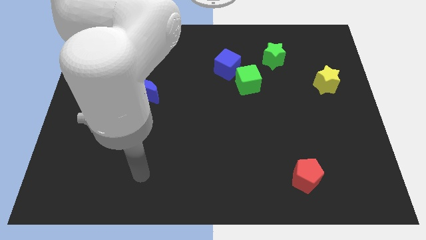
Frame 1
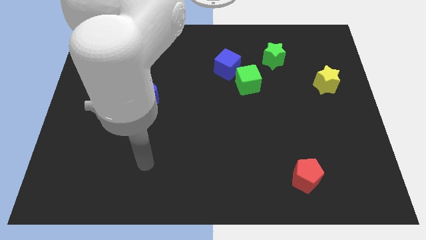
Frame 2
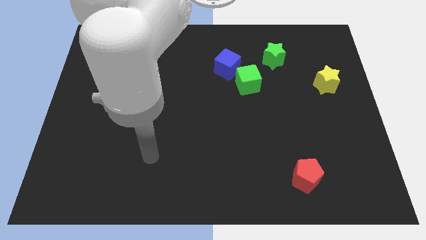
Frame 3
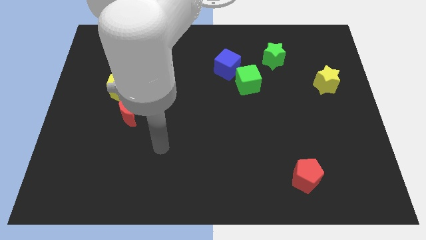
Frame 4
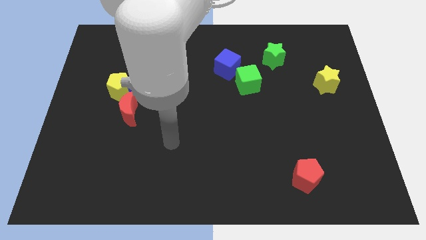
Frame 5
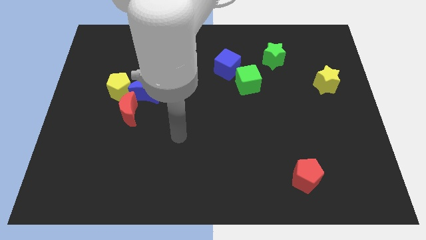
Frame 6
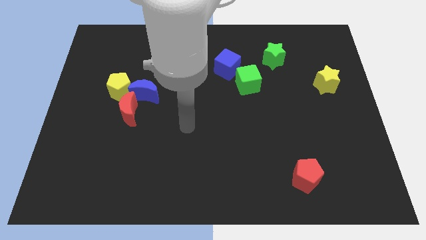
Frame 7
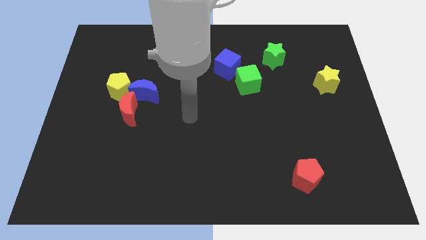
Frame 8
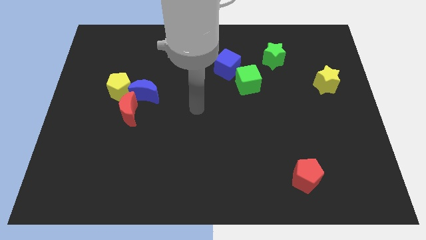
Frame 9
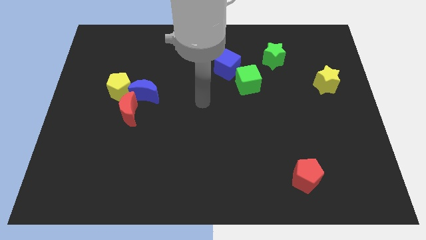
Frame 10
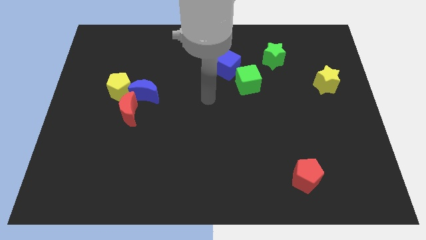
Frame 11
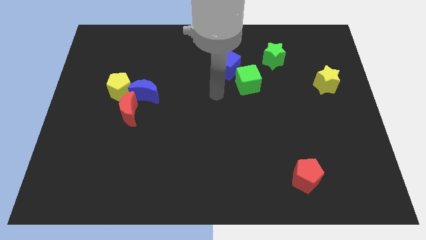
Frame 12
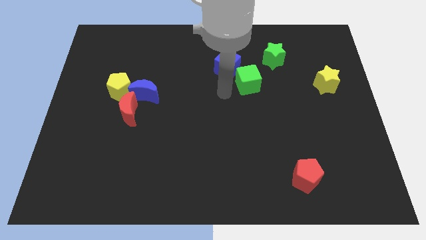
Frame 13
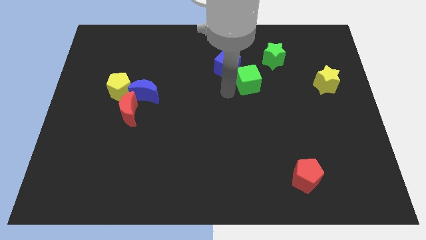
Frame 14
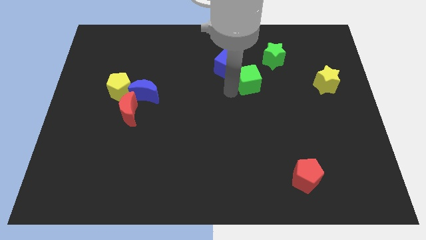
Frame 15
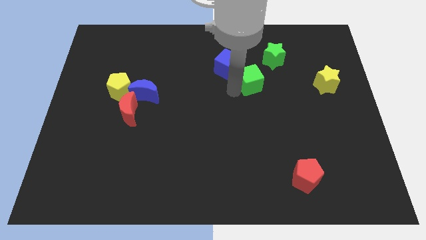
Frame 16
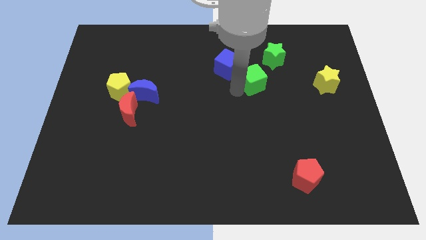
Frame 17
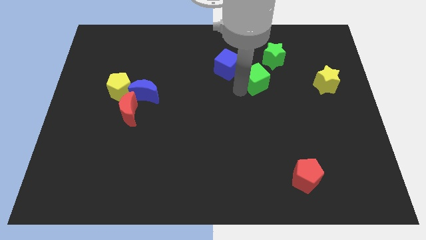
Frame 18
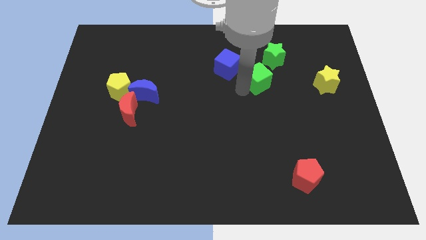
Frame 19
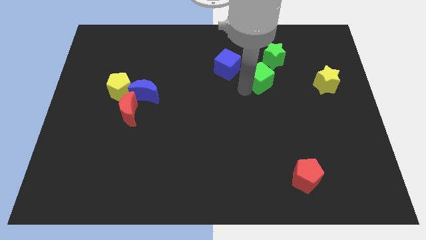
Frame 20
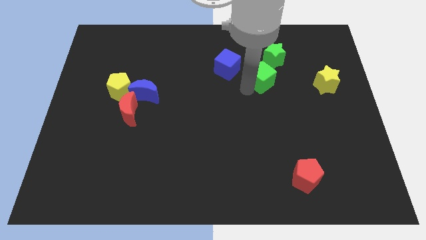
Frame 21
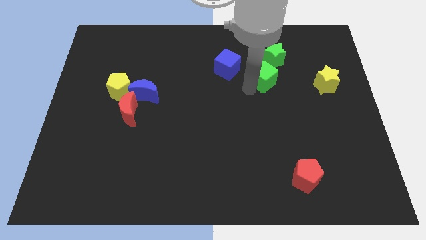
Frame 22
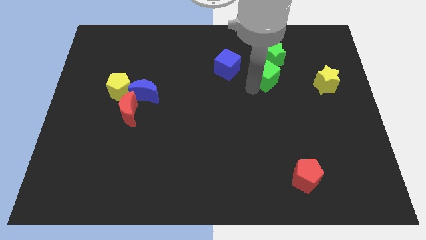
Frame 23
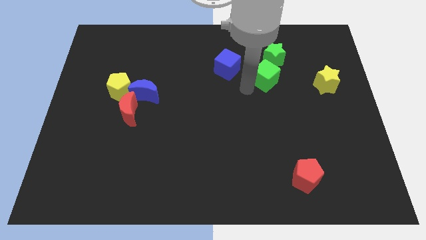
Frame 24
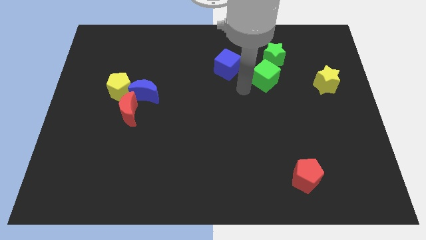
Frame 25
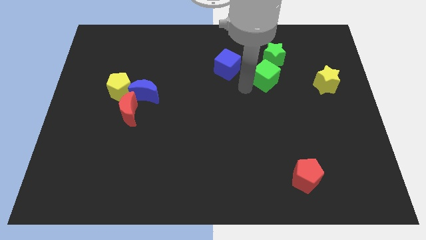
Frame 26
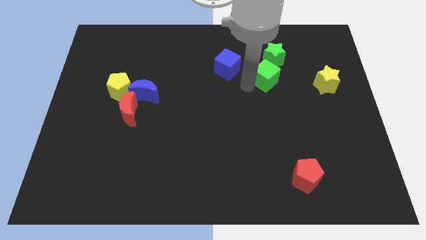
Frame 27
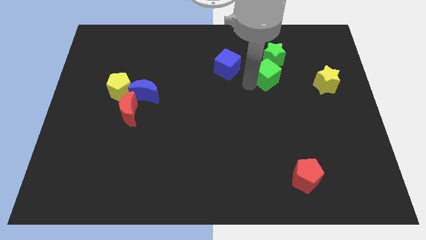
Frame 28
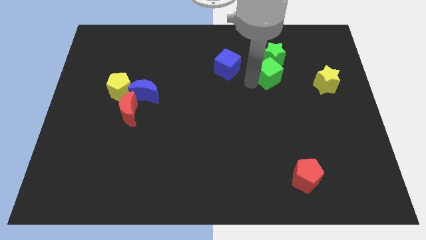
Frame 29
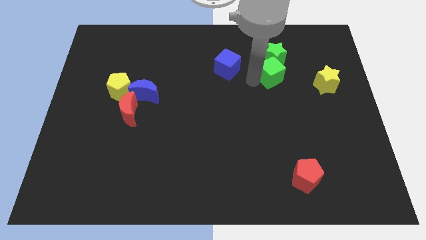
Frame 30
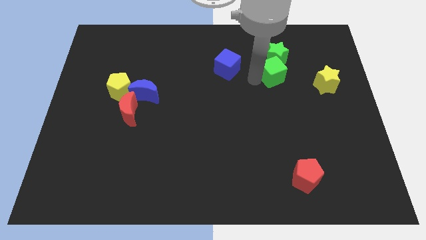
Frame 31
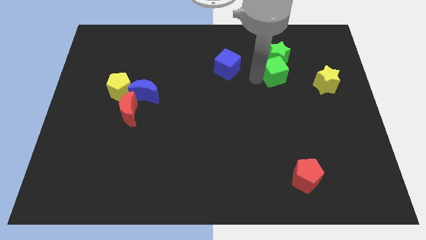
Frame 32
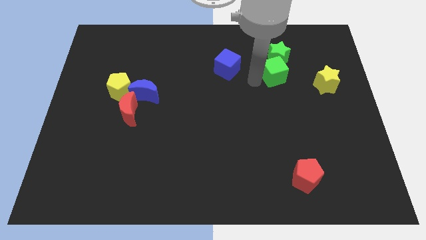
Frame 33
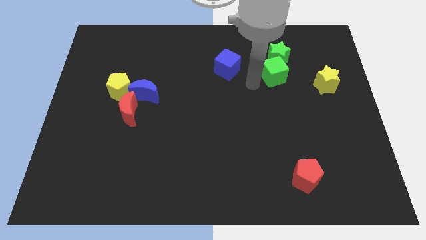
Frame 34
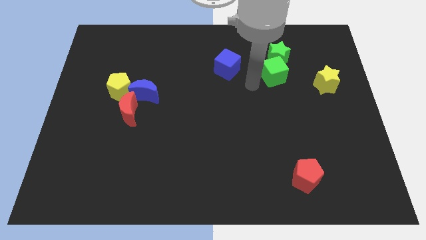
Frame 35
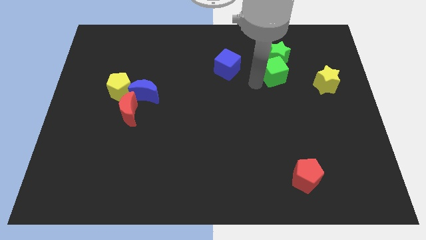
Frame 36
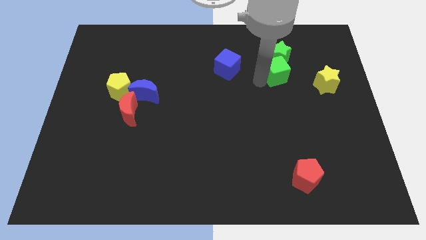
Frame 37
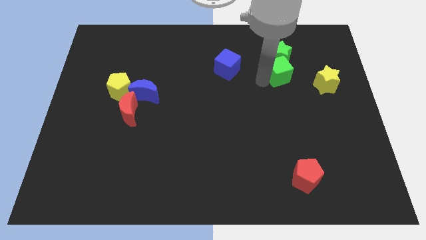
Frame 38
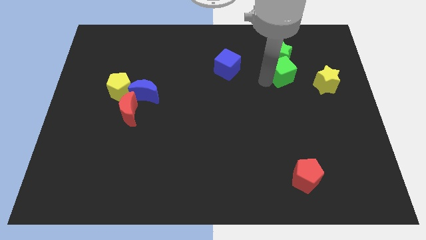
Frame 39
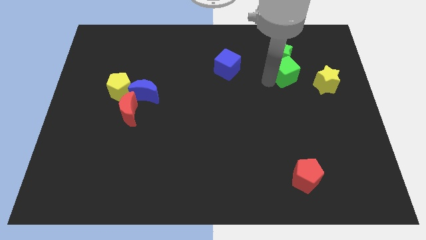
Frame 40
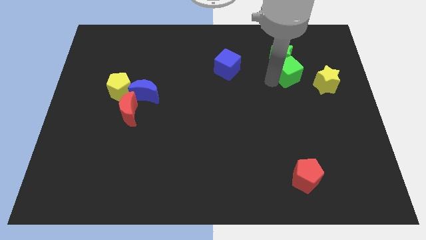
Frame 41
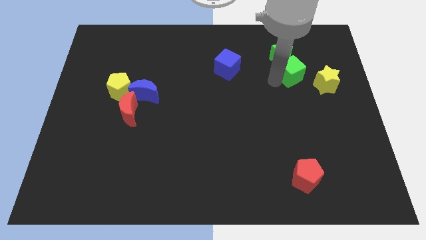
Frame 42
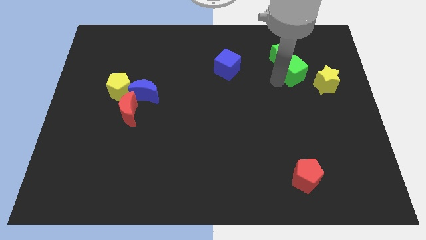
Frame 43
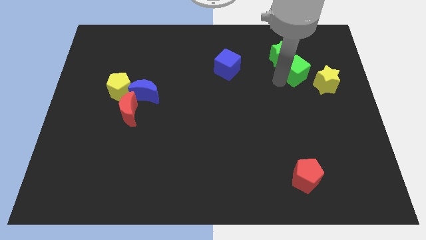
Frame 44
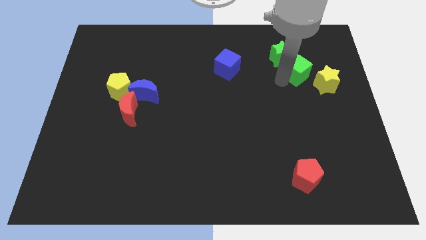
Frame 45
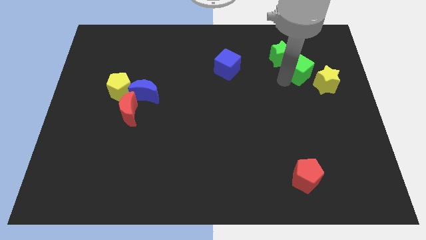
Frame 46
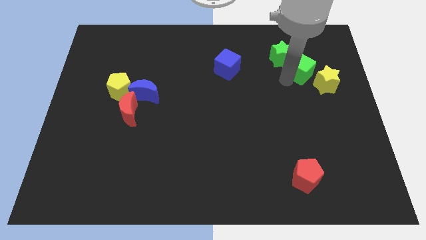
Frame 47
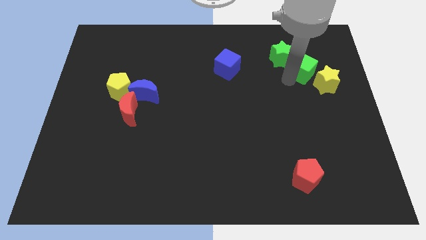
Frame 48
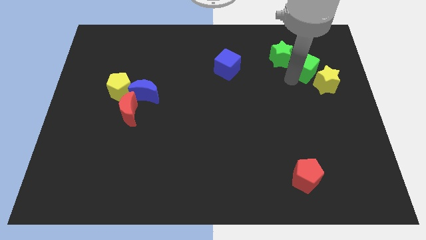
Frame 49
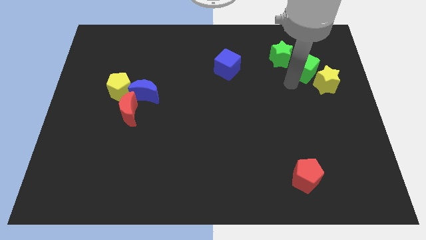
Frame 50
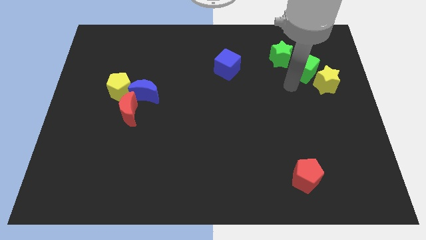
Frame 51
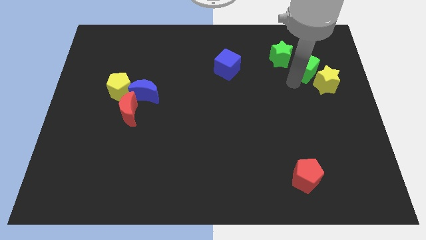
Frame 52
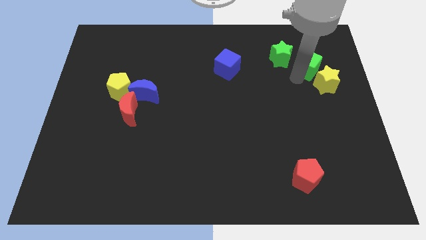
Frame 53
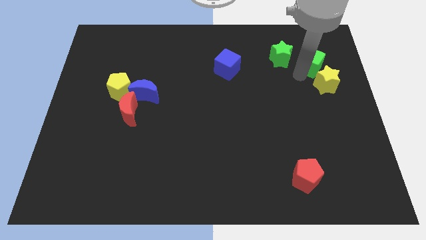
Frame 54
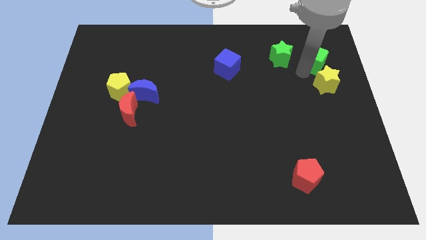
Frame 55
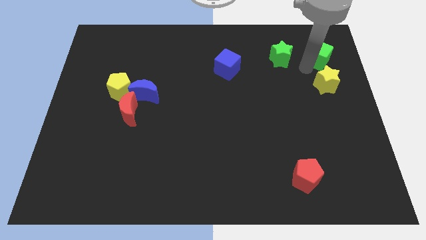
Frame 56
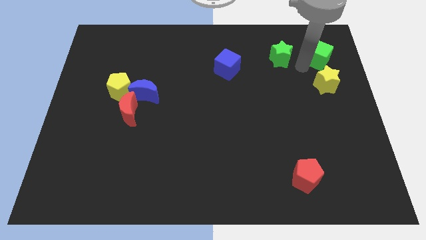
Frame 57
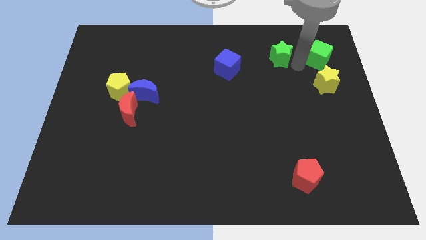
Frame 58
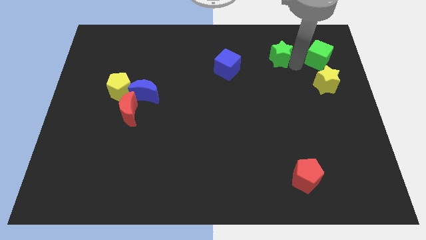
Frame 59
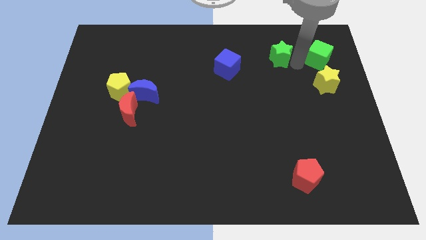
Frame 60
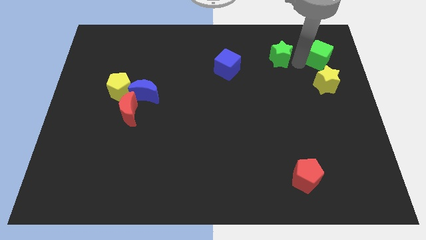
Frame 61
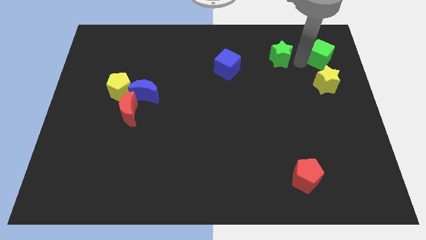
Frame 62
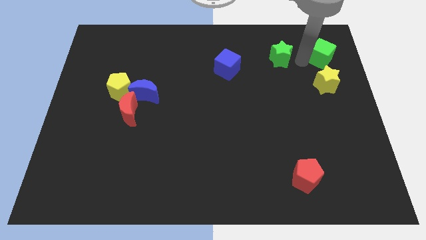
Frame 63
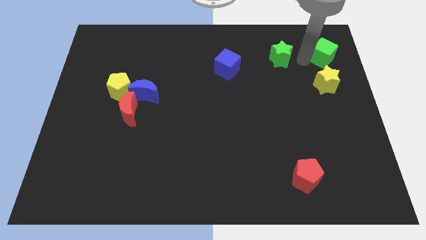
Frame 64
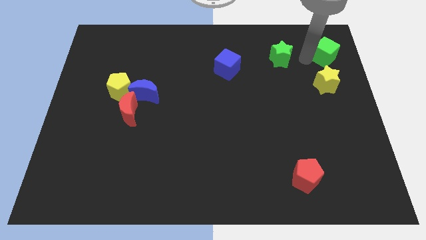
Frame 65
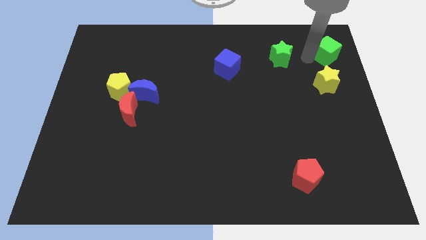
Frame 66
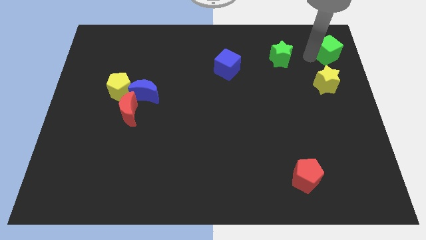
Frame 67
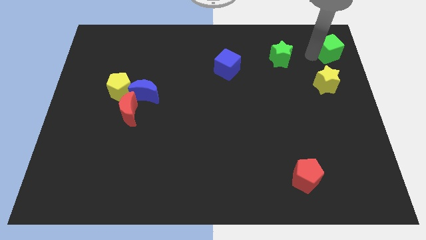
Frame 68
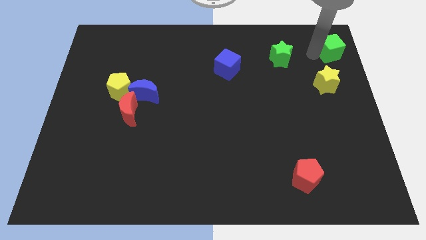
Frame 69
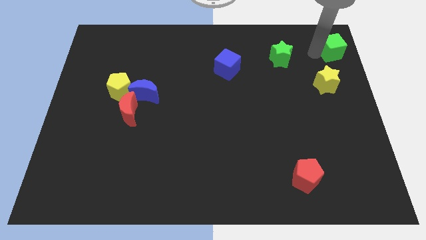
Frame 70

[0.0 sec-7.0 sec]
slide the green cube to the upper right corner

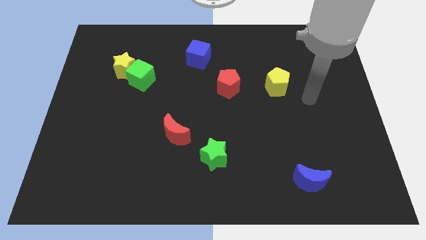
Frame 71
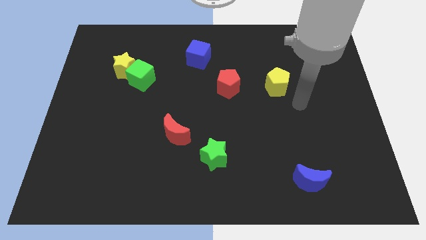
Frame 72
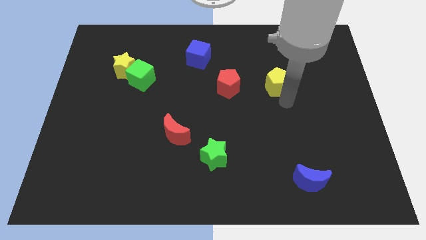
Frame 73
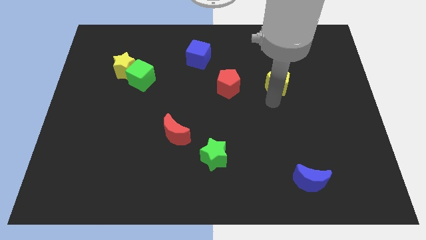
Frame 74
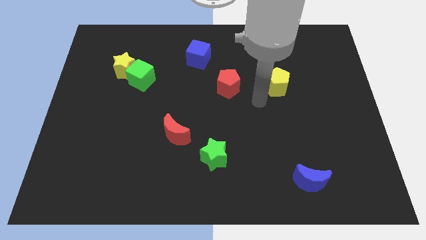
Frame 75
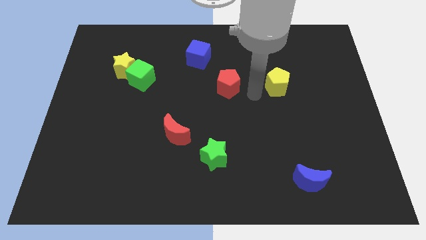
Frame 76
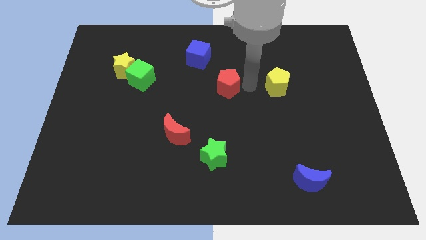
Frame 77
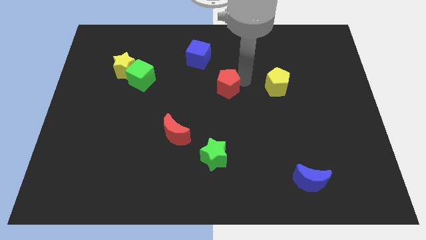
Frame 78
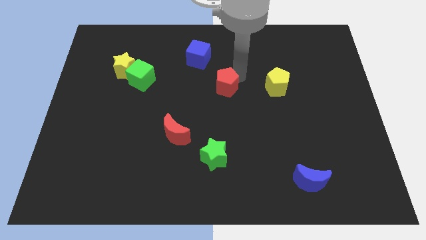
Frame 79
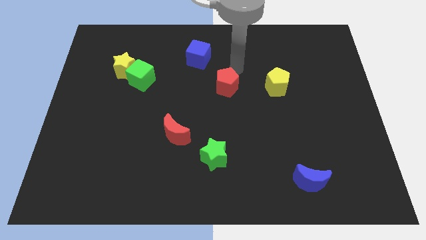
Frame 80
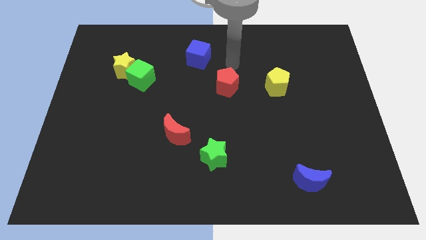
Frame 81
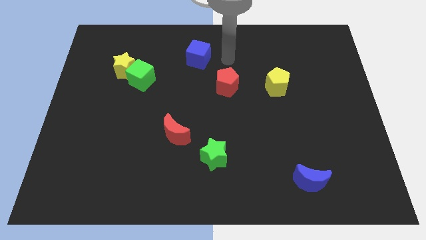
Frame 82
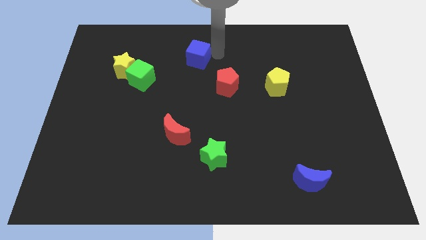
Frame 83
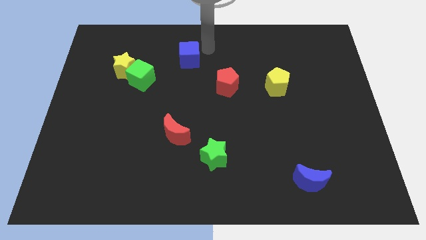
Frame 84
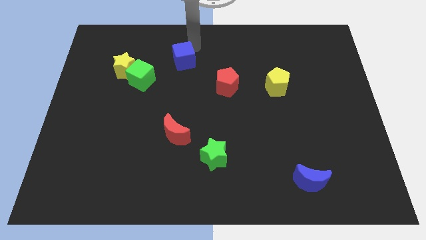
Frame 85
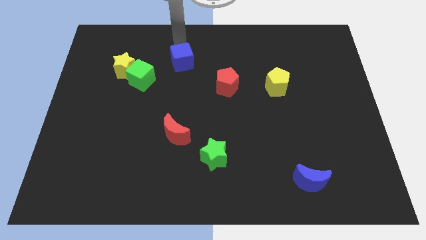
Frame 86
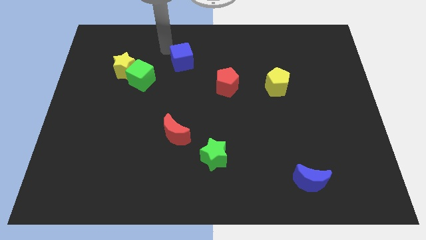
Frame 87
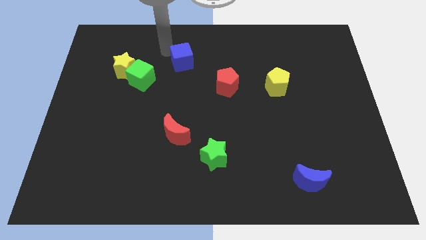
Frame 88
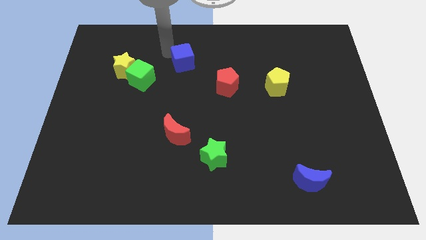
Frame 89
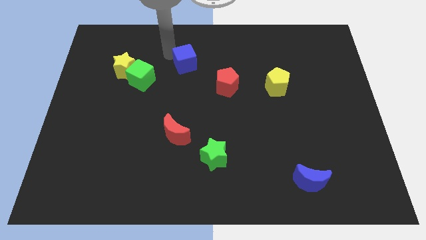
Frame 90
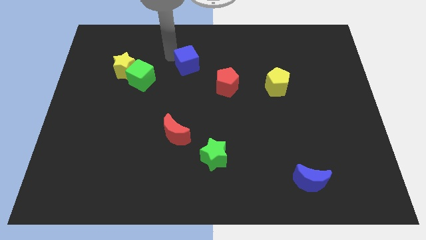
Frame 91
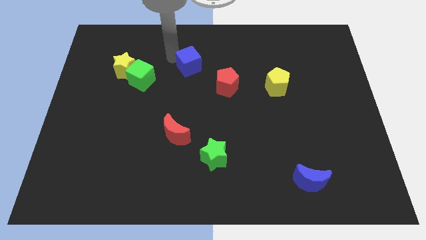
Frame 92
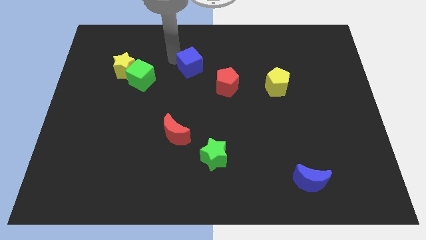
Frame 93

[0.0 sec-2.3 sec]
put the blue cube to the center
